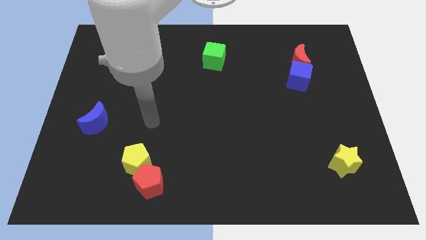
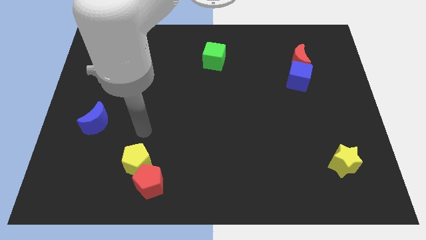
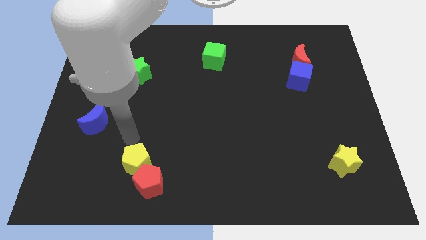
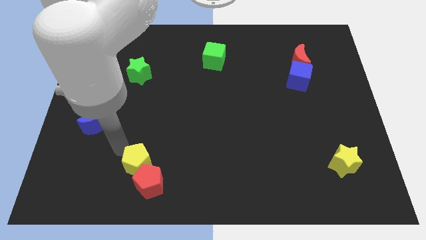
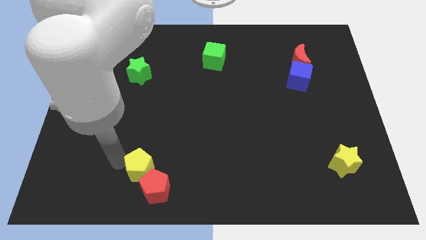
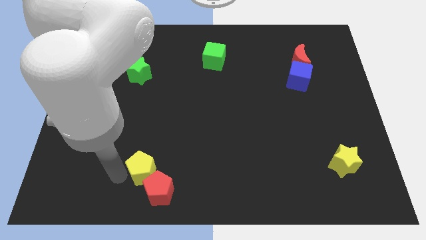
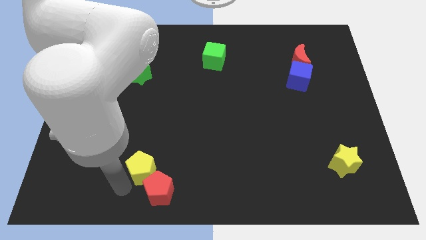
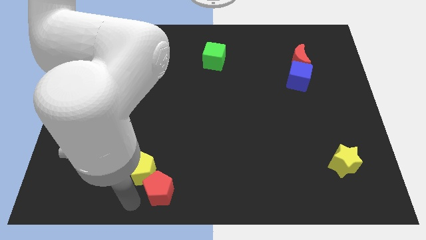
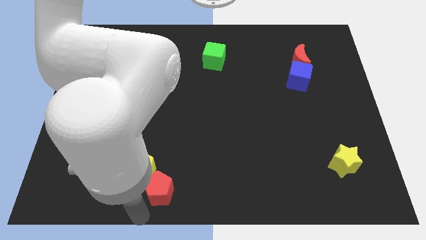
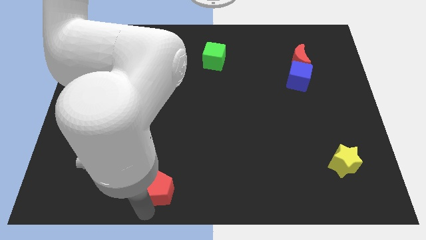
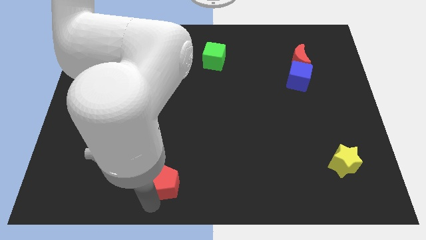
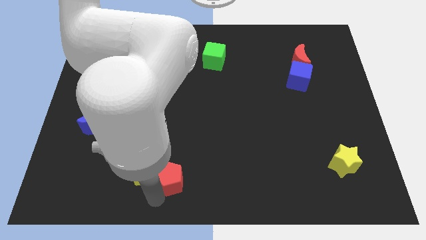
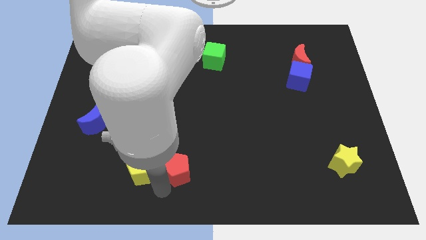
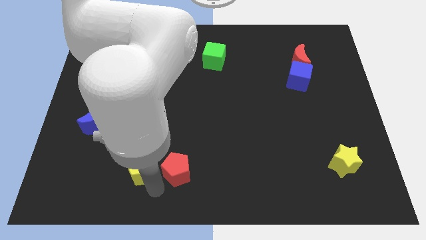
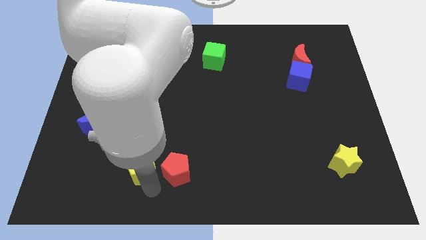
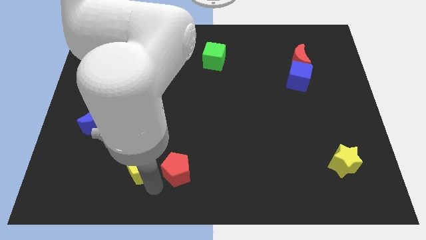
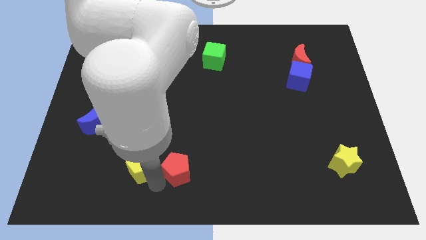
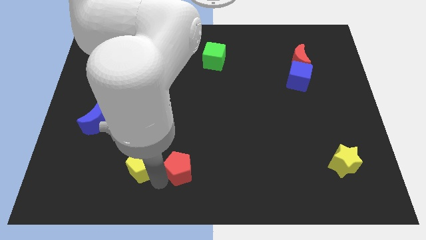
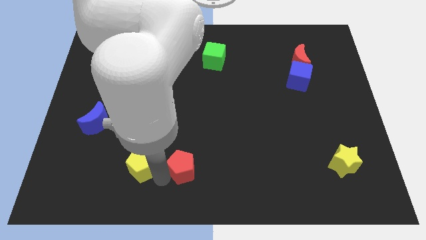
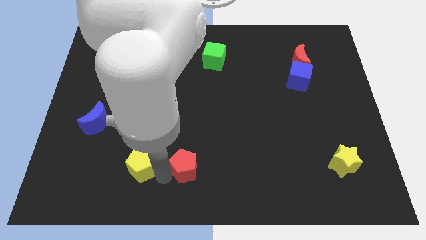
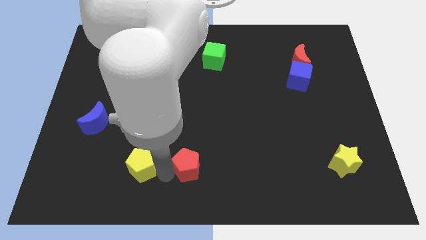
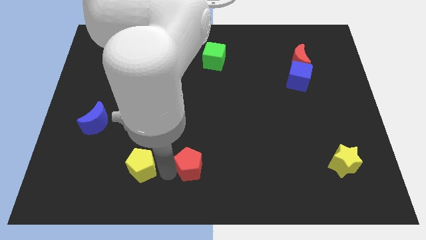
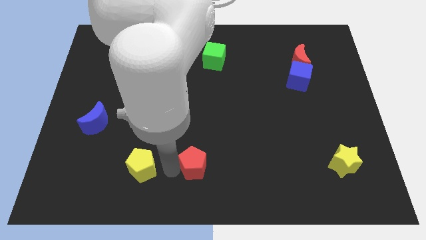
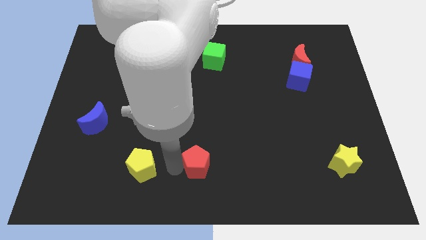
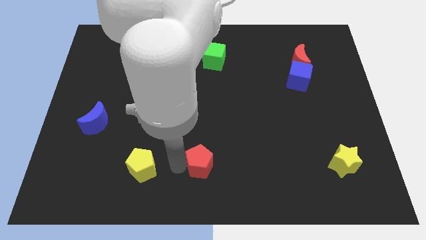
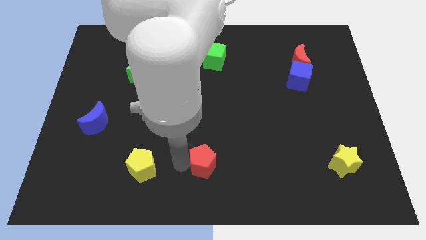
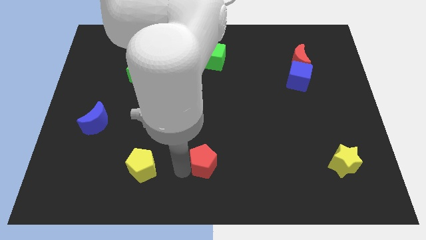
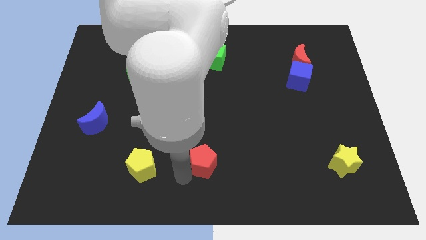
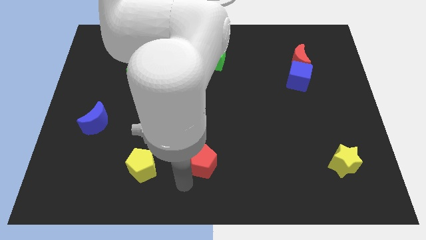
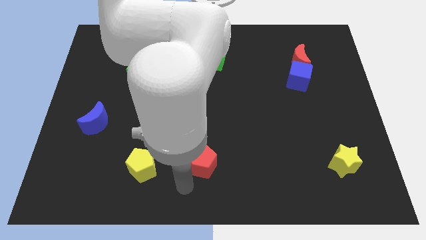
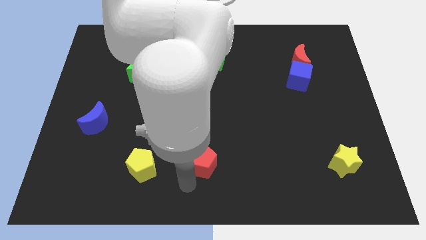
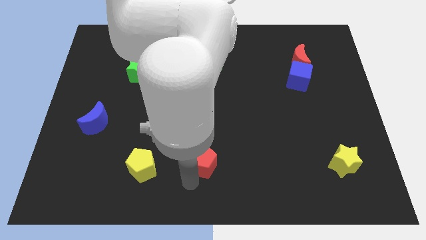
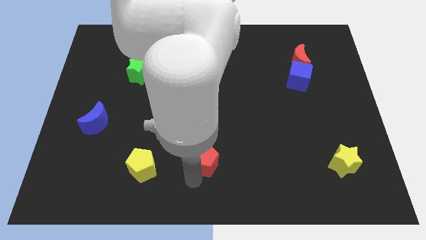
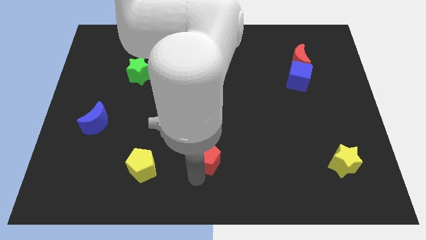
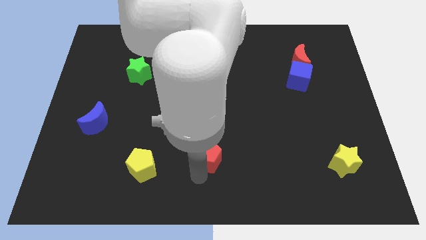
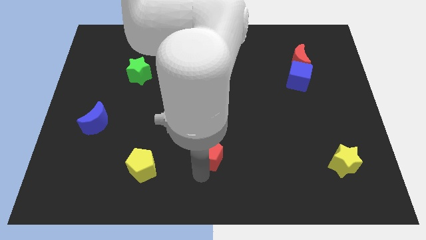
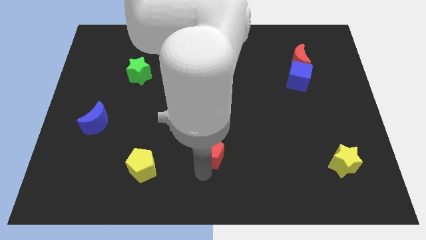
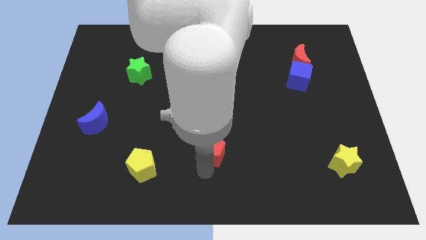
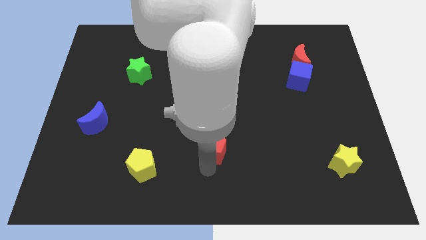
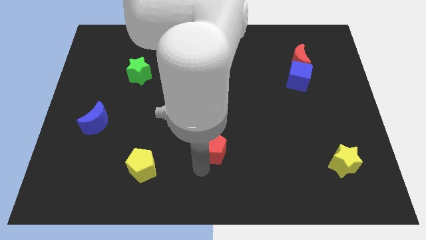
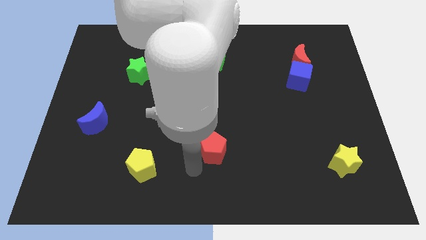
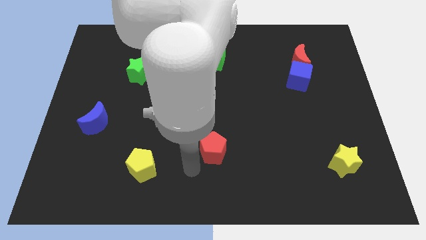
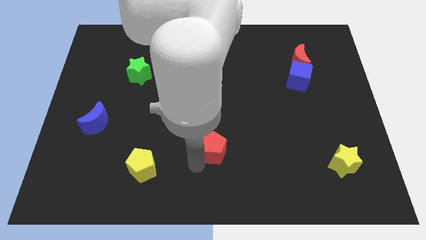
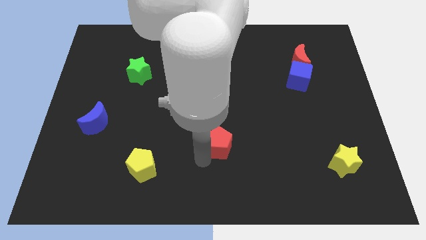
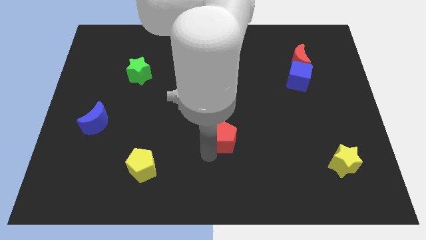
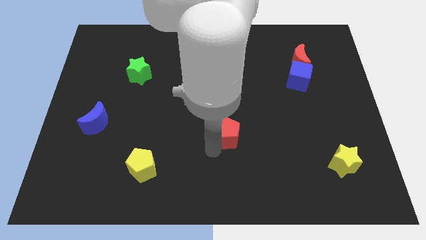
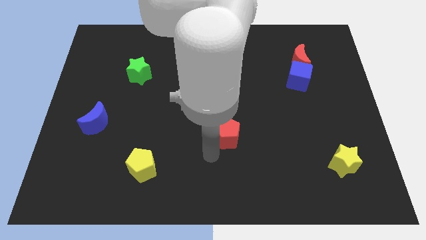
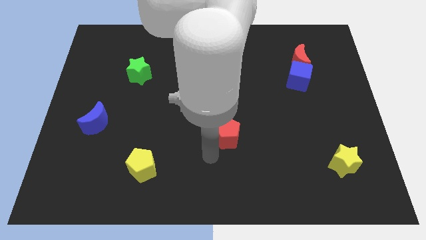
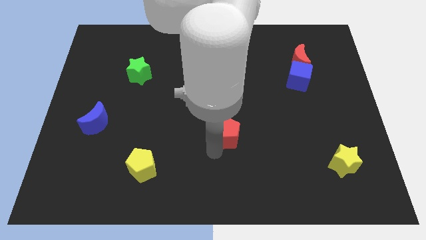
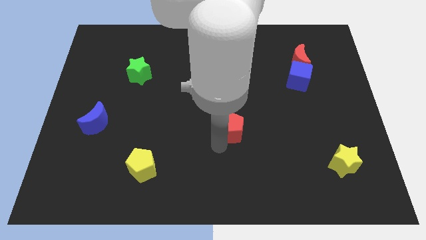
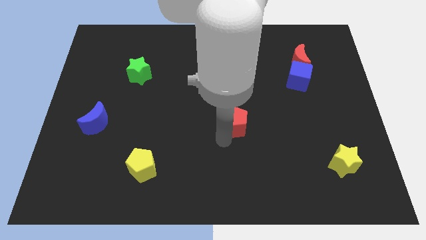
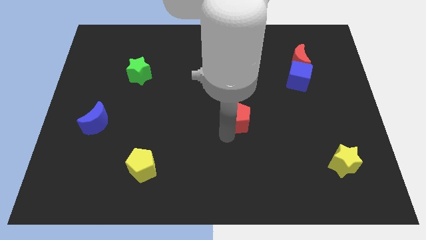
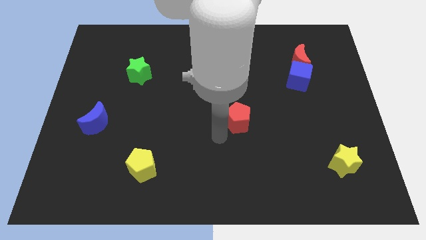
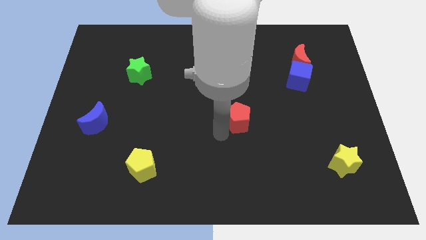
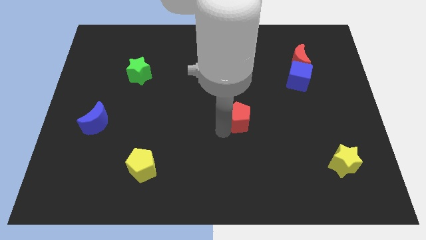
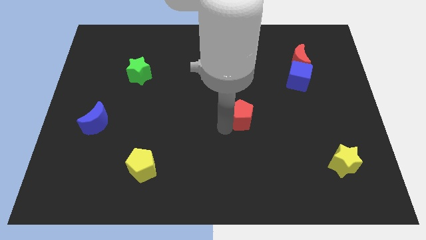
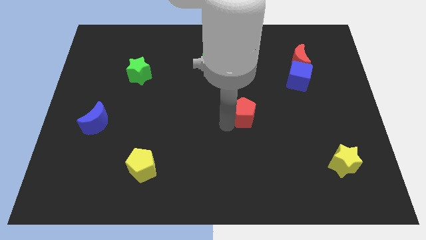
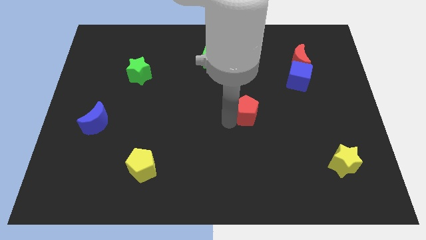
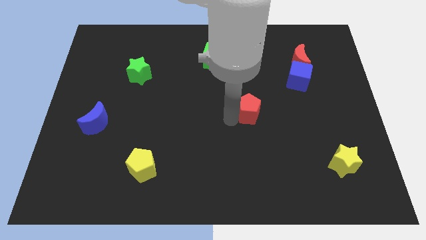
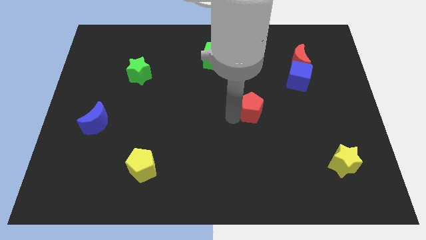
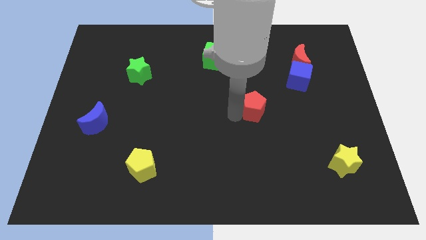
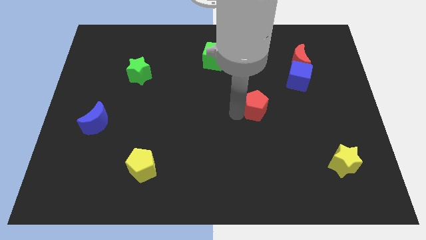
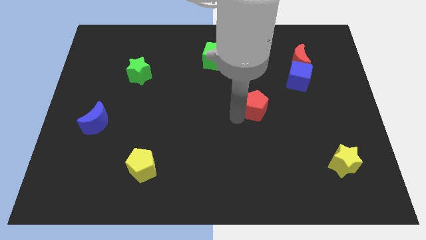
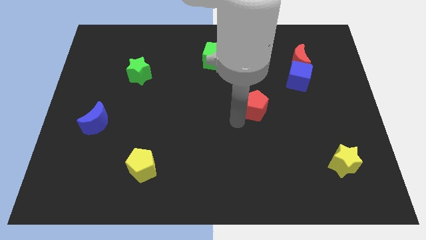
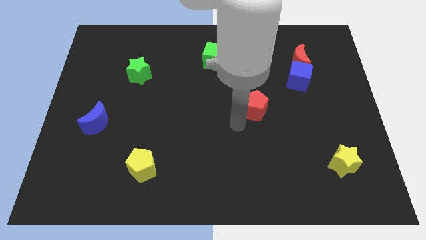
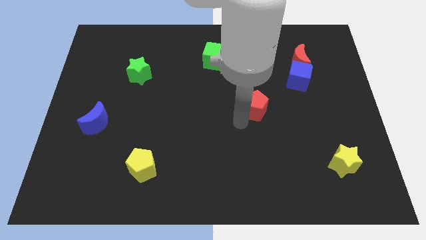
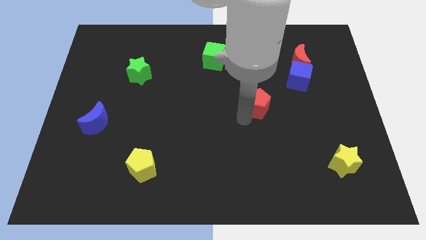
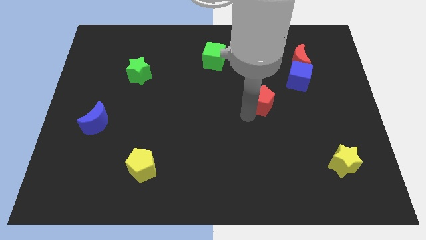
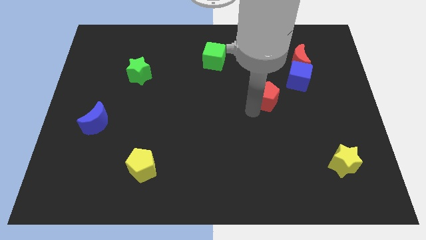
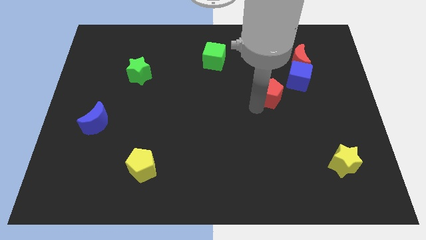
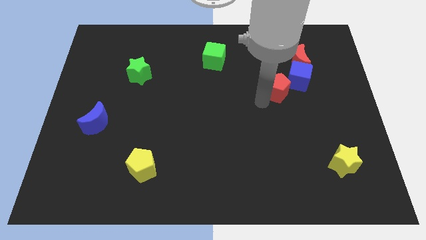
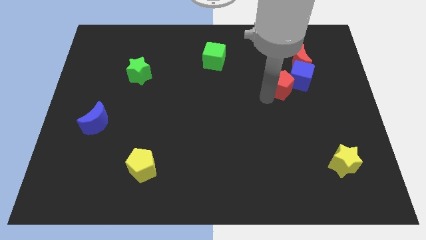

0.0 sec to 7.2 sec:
move the red pentagon towards the blue cube

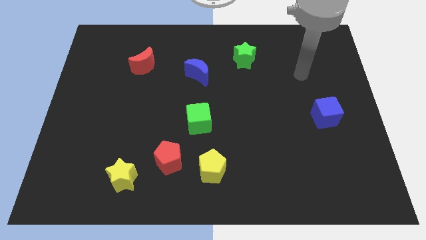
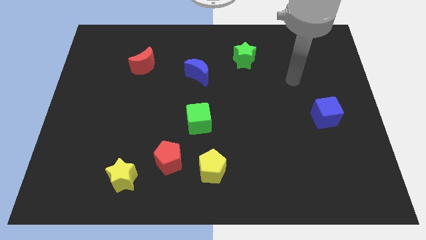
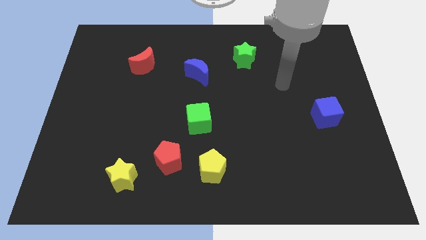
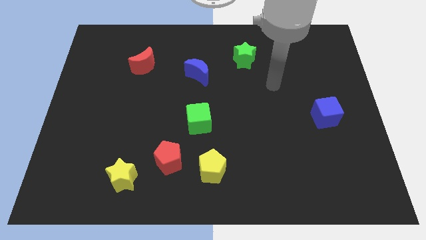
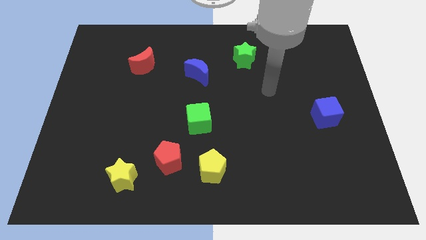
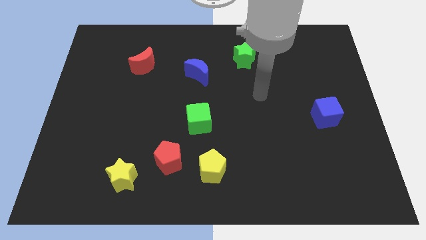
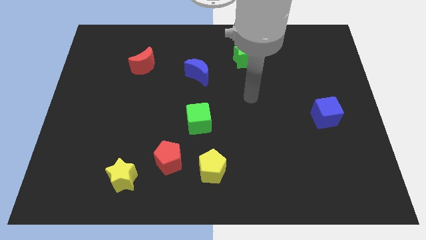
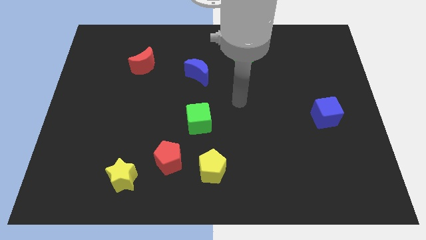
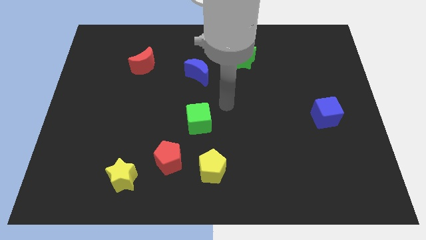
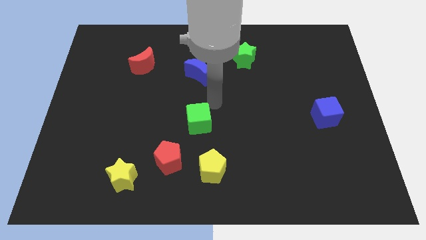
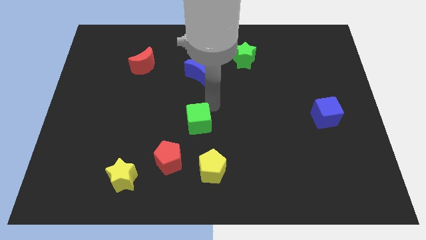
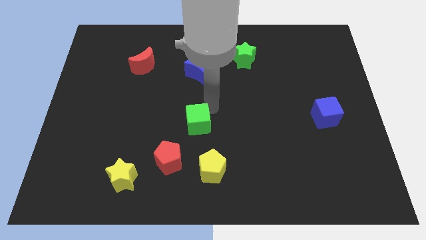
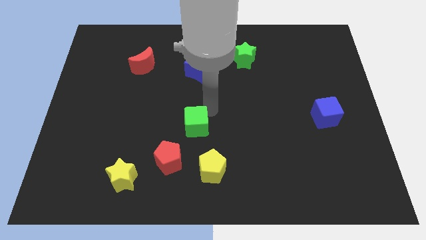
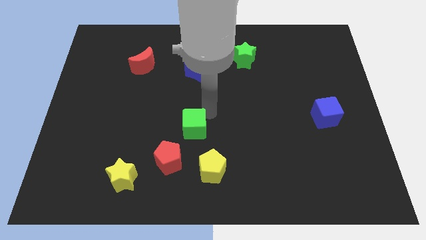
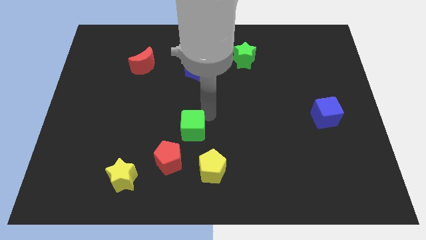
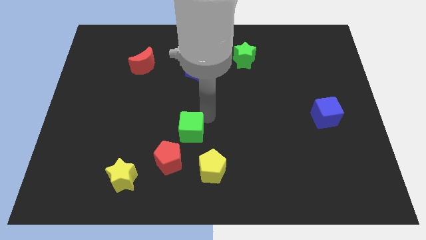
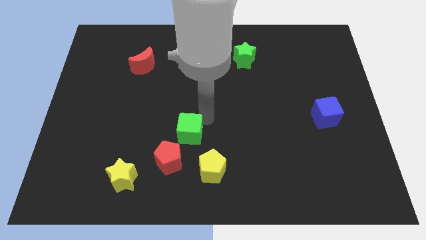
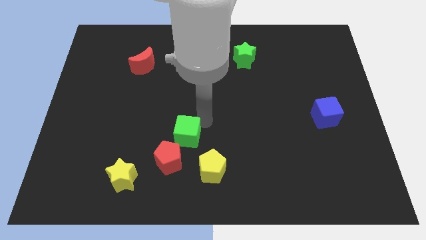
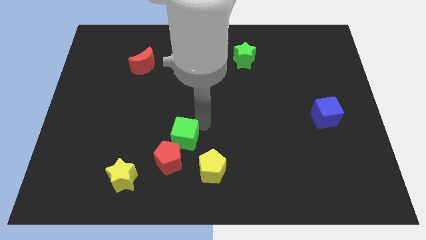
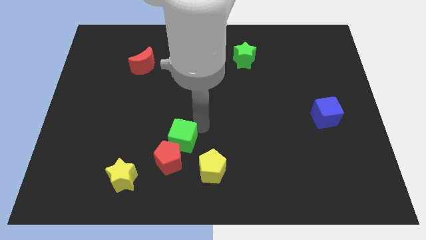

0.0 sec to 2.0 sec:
move the green cube next to the red pentagon
